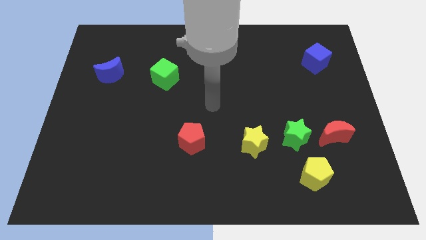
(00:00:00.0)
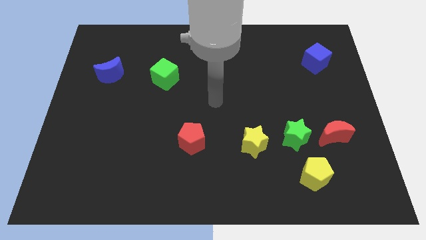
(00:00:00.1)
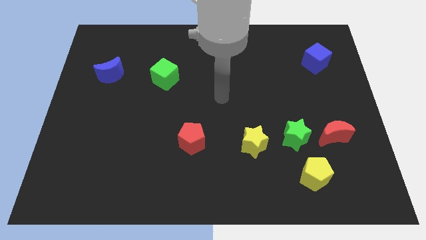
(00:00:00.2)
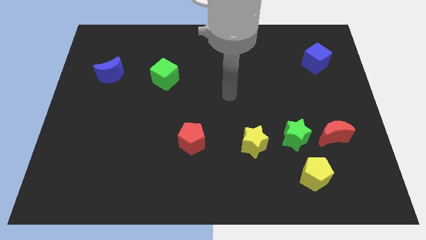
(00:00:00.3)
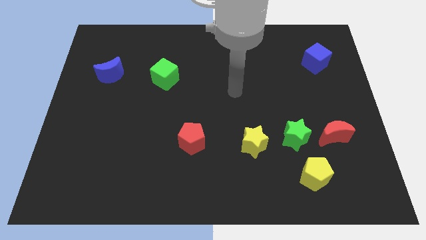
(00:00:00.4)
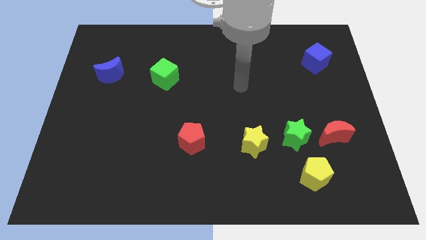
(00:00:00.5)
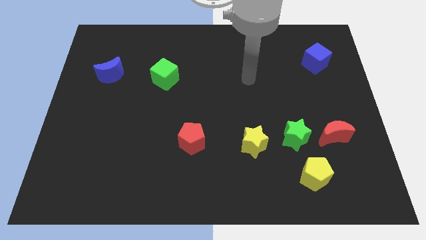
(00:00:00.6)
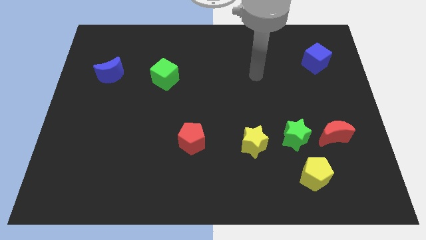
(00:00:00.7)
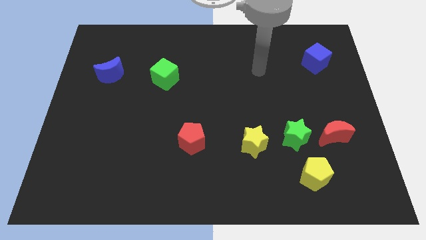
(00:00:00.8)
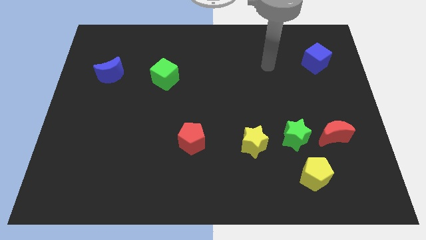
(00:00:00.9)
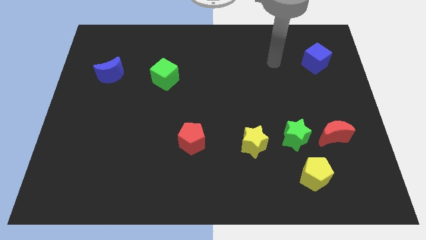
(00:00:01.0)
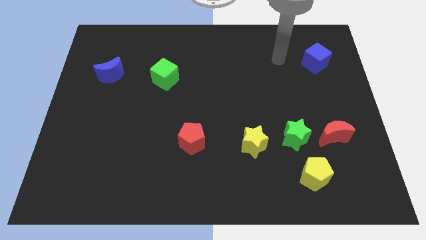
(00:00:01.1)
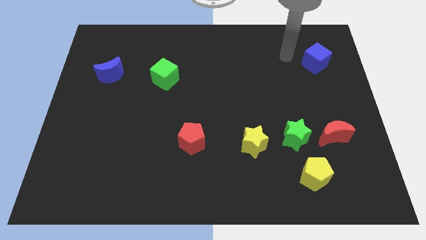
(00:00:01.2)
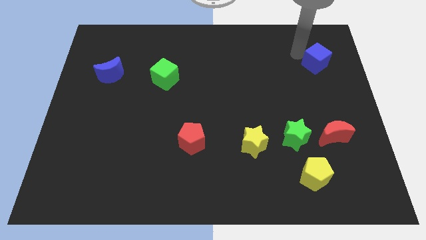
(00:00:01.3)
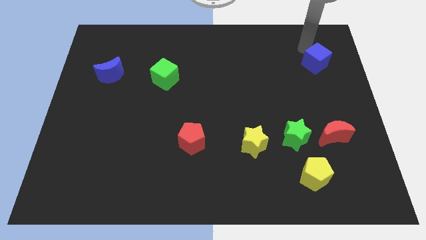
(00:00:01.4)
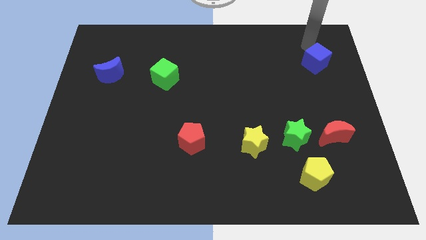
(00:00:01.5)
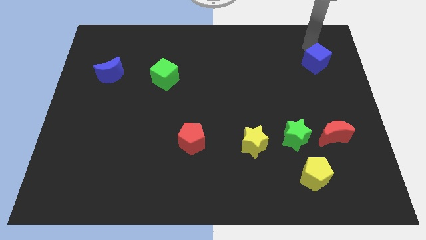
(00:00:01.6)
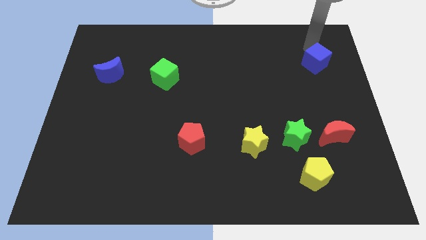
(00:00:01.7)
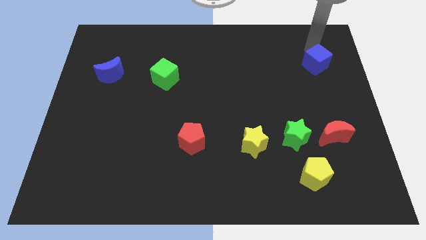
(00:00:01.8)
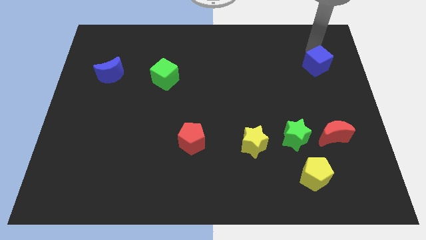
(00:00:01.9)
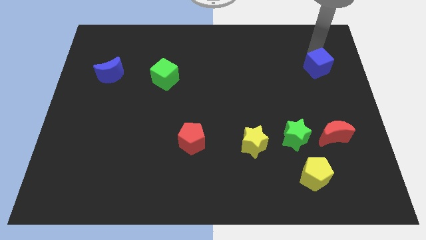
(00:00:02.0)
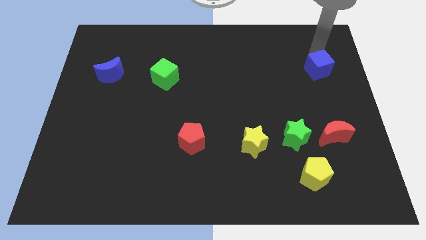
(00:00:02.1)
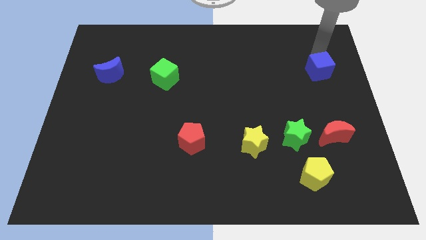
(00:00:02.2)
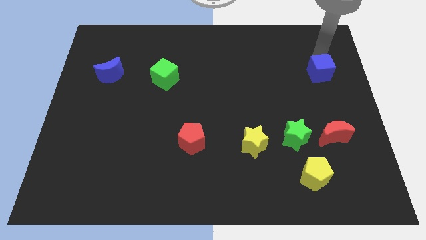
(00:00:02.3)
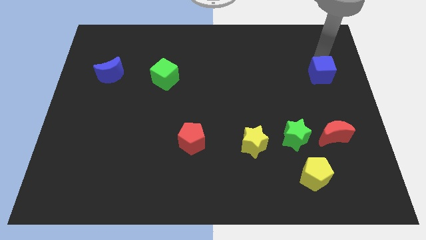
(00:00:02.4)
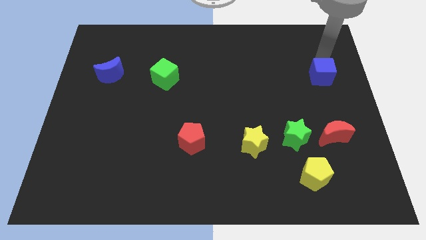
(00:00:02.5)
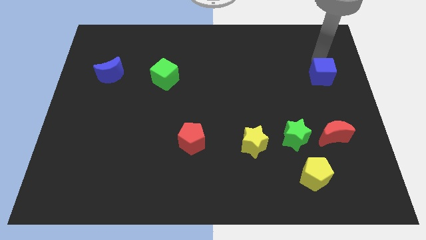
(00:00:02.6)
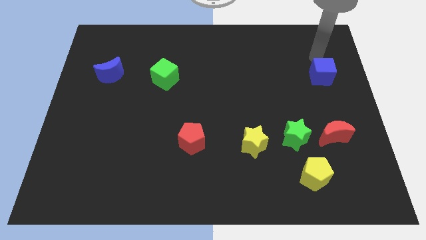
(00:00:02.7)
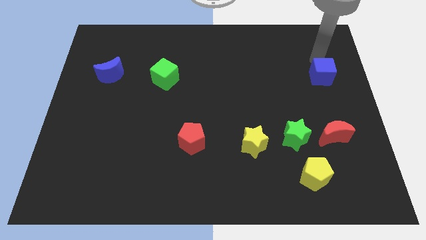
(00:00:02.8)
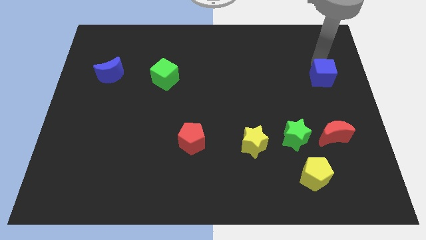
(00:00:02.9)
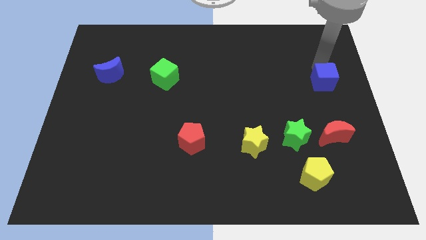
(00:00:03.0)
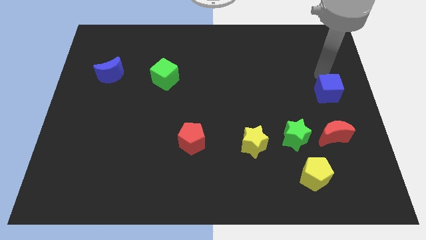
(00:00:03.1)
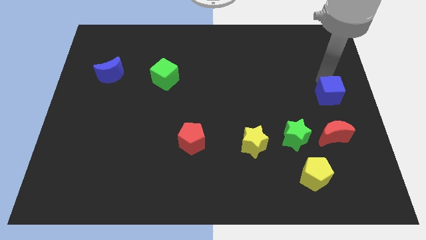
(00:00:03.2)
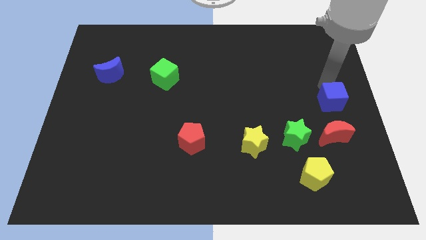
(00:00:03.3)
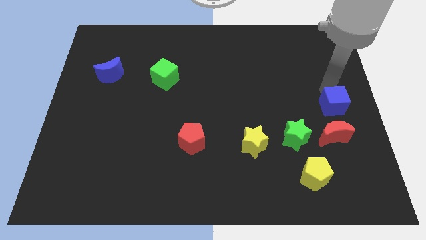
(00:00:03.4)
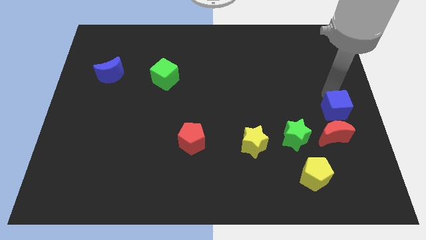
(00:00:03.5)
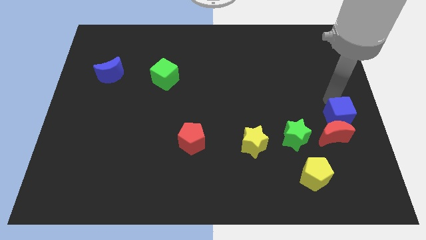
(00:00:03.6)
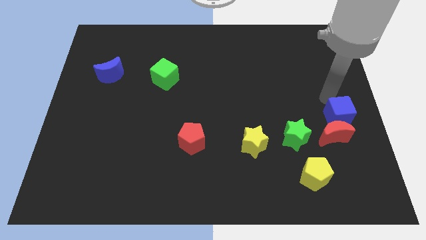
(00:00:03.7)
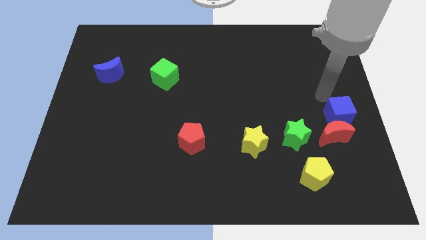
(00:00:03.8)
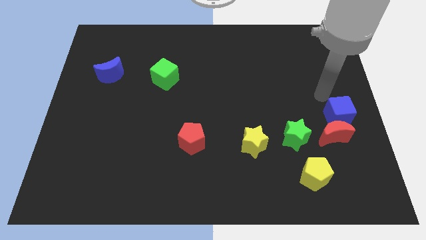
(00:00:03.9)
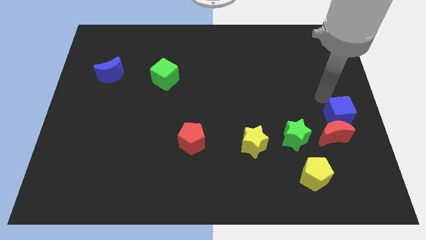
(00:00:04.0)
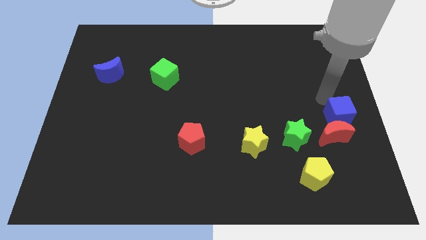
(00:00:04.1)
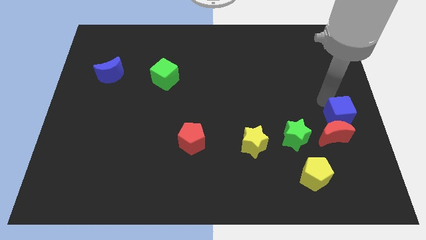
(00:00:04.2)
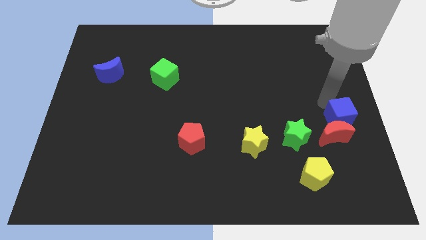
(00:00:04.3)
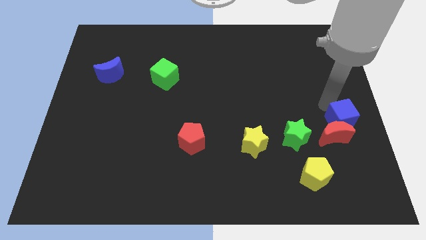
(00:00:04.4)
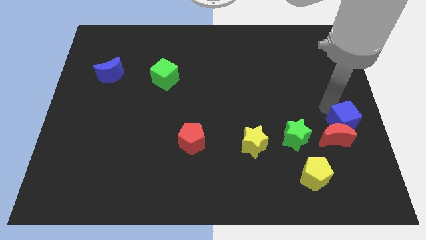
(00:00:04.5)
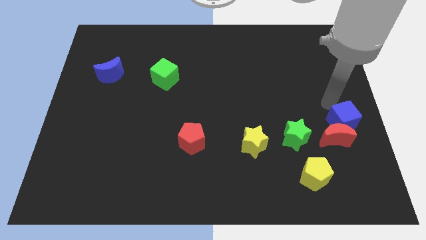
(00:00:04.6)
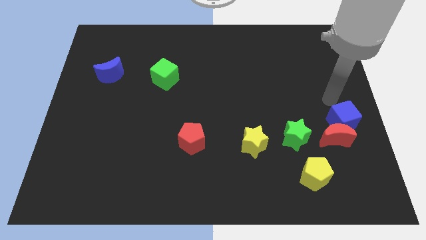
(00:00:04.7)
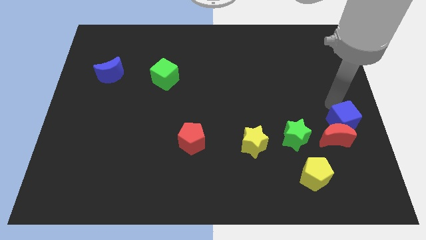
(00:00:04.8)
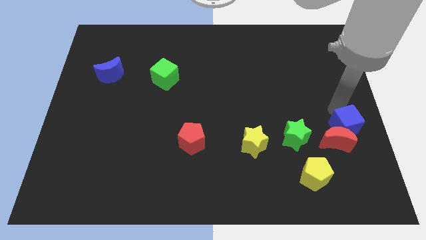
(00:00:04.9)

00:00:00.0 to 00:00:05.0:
move the blue cube downwards

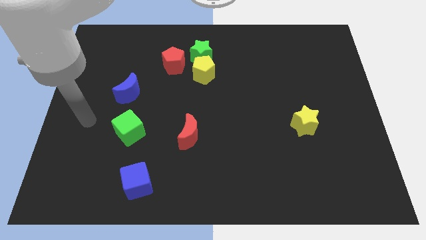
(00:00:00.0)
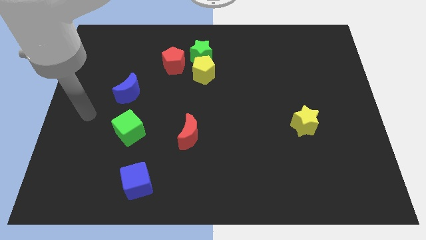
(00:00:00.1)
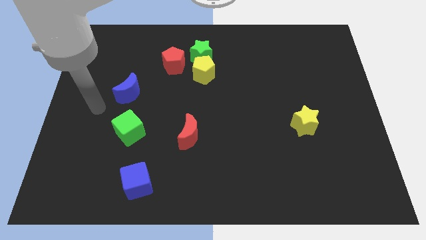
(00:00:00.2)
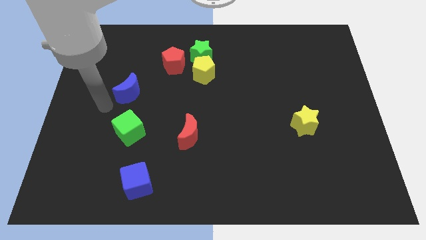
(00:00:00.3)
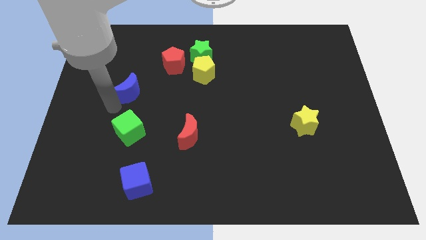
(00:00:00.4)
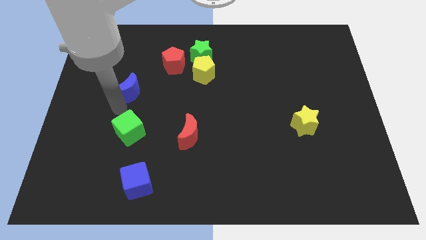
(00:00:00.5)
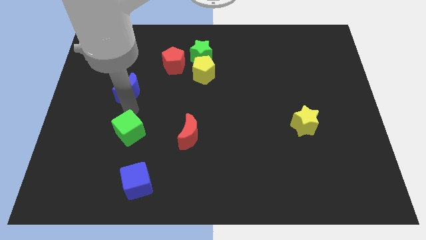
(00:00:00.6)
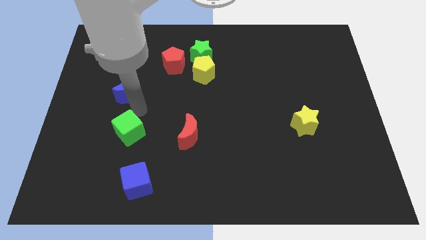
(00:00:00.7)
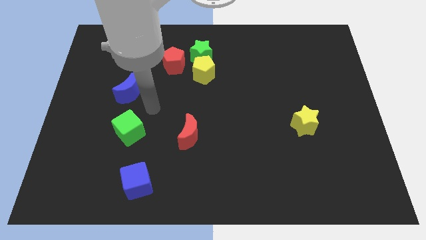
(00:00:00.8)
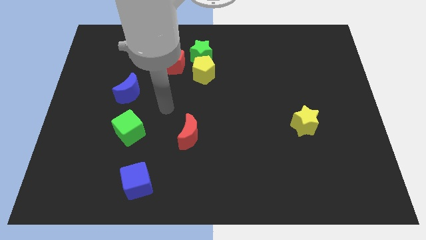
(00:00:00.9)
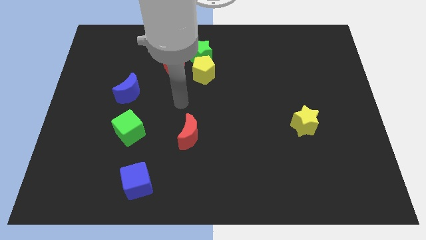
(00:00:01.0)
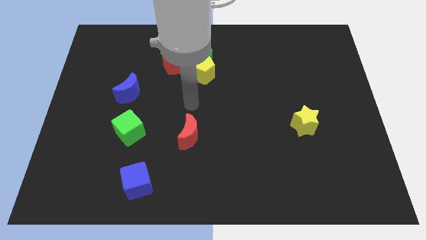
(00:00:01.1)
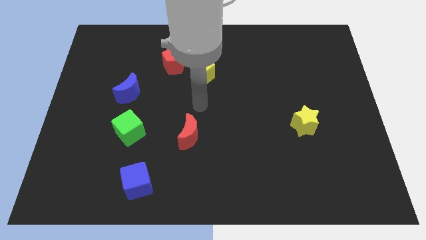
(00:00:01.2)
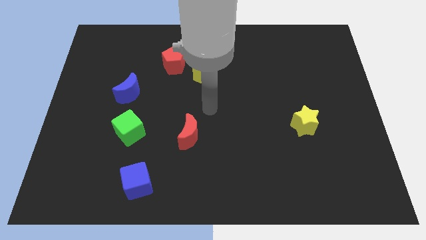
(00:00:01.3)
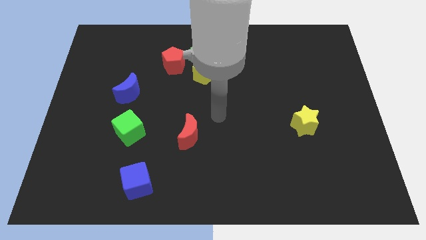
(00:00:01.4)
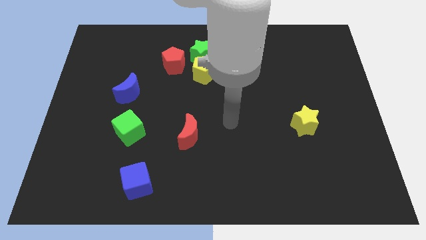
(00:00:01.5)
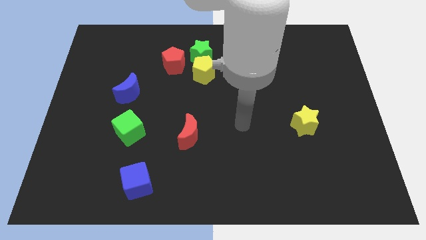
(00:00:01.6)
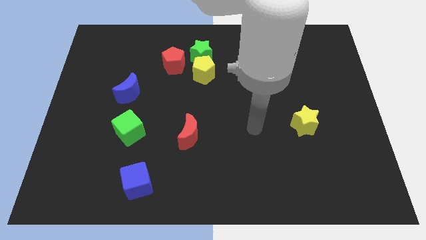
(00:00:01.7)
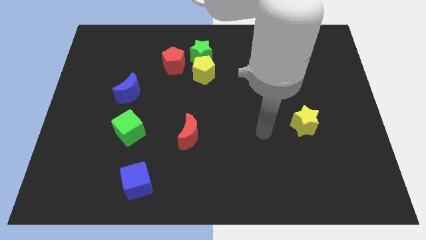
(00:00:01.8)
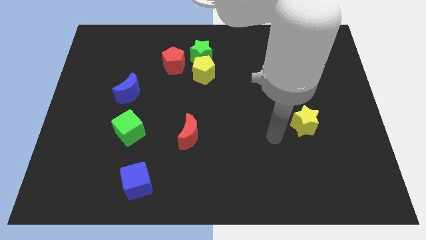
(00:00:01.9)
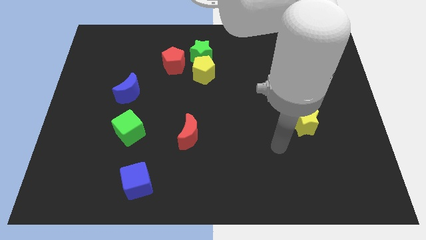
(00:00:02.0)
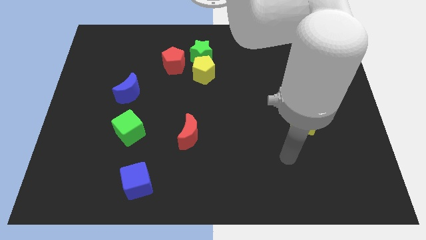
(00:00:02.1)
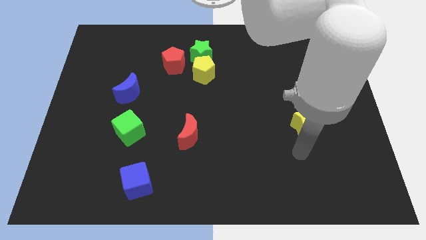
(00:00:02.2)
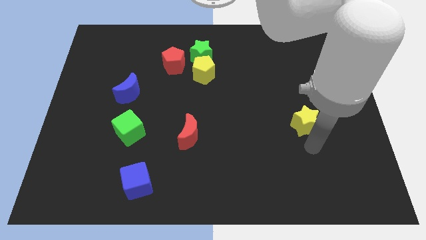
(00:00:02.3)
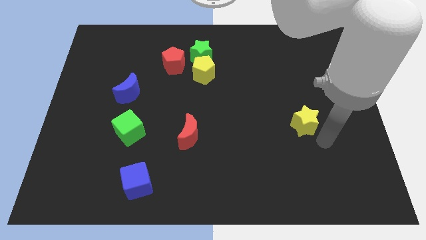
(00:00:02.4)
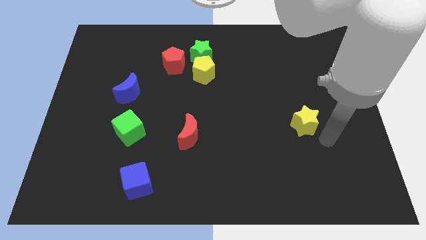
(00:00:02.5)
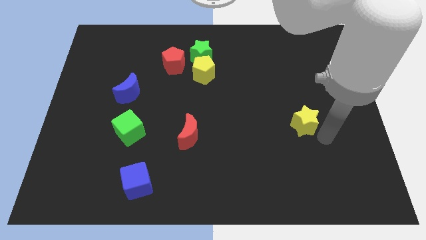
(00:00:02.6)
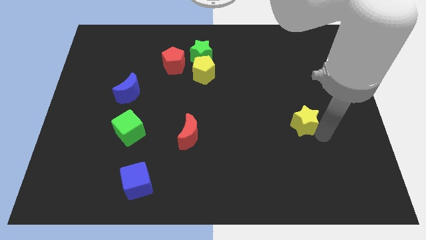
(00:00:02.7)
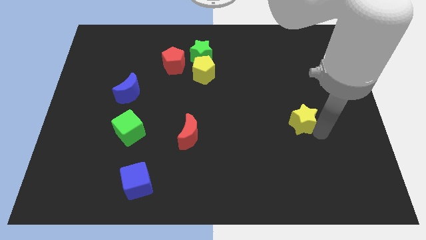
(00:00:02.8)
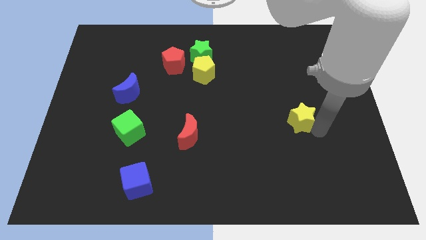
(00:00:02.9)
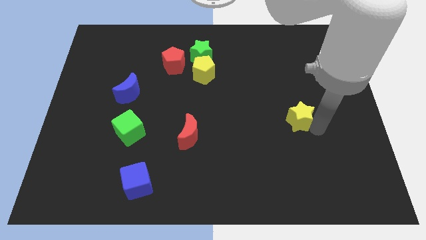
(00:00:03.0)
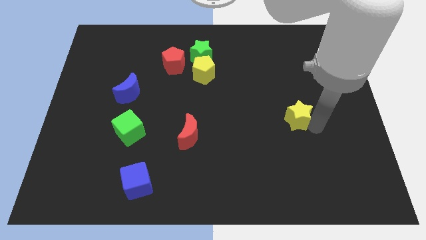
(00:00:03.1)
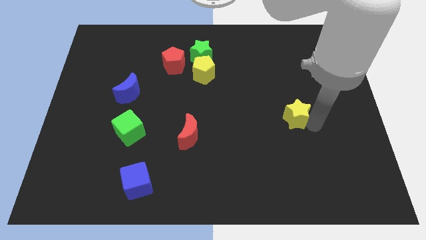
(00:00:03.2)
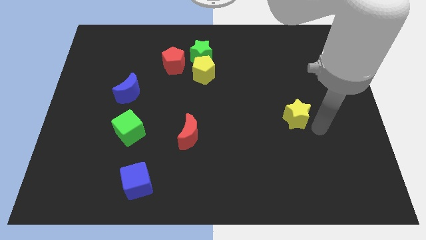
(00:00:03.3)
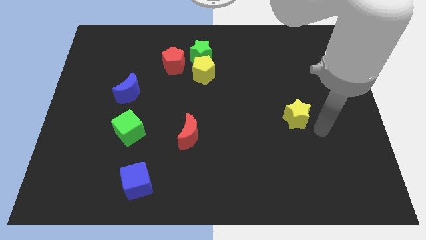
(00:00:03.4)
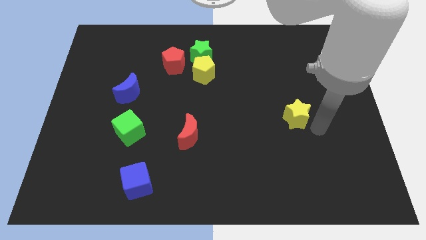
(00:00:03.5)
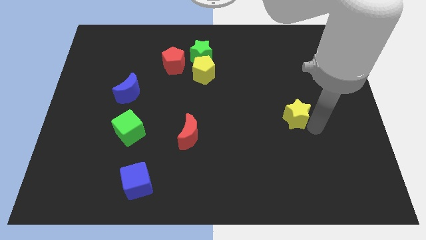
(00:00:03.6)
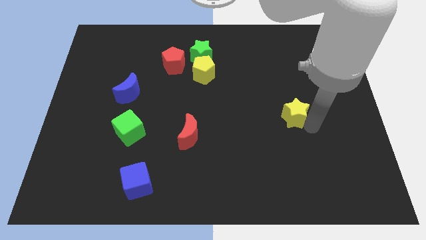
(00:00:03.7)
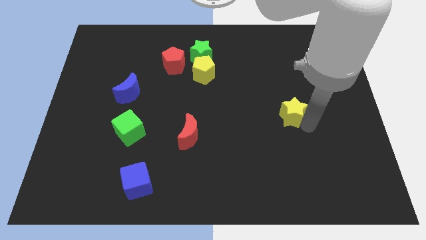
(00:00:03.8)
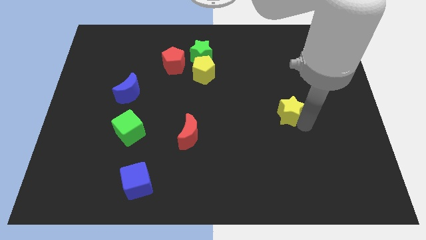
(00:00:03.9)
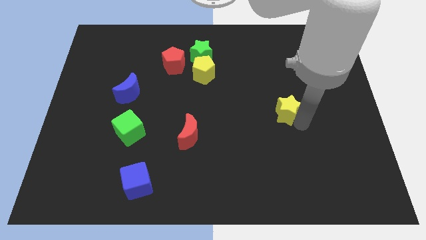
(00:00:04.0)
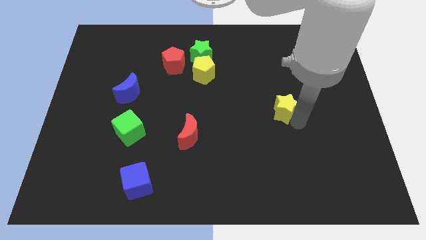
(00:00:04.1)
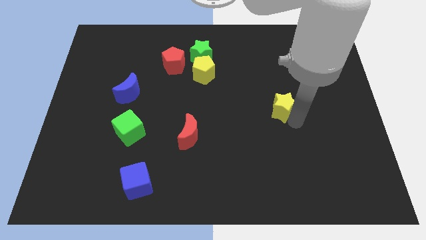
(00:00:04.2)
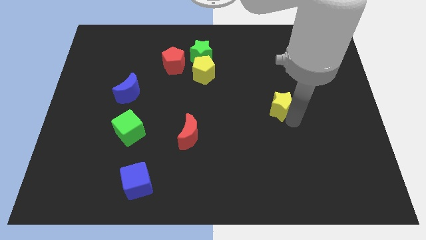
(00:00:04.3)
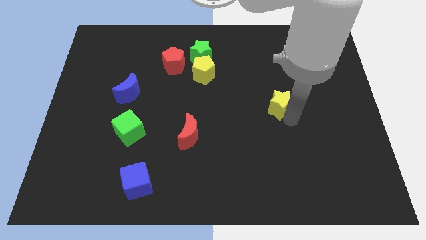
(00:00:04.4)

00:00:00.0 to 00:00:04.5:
slightly push the yellow star diagonally up and to the left
